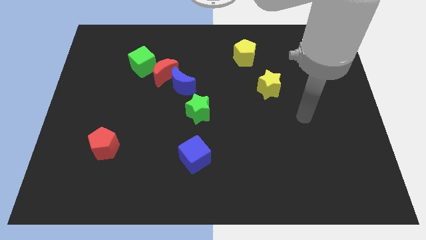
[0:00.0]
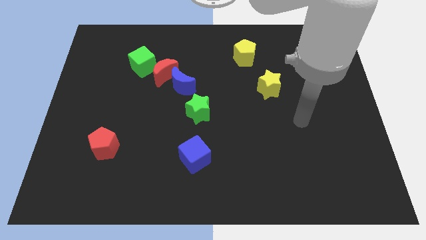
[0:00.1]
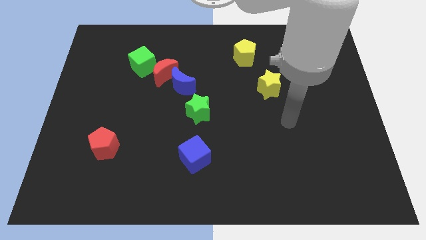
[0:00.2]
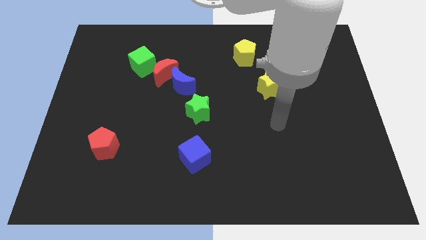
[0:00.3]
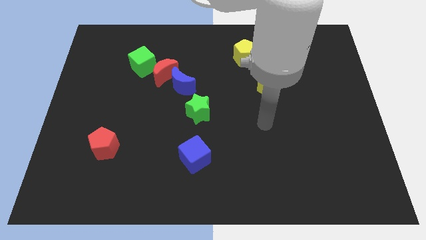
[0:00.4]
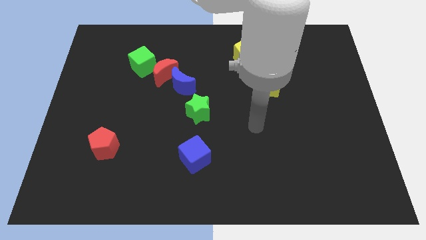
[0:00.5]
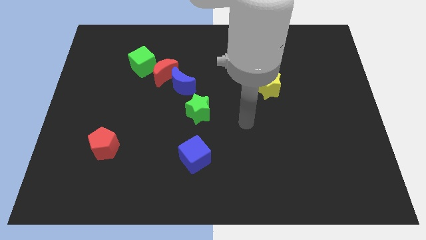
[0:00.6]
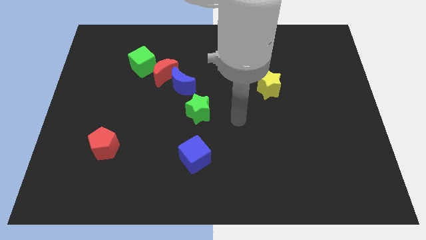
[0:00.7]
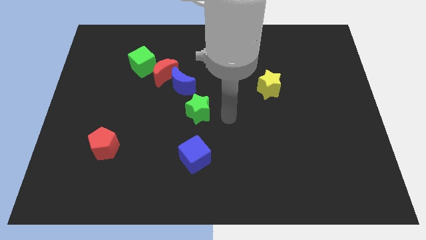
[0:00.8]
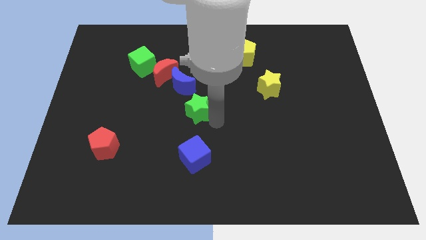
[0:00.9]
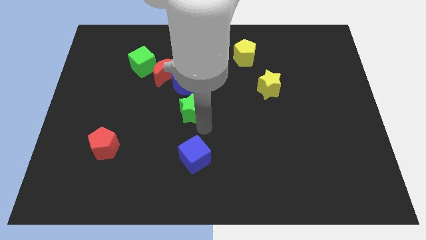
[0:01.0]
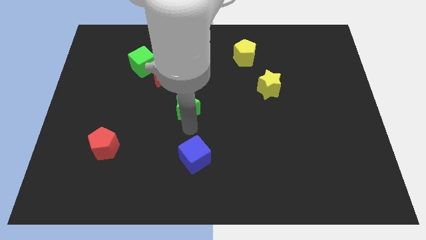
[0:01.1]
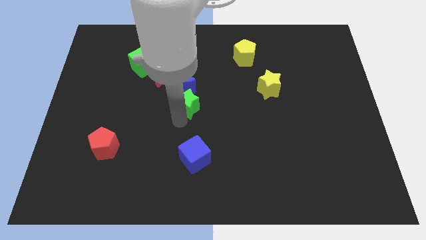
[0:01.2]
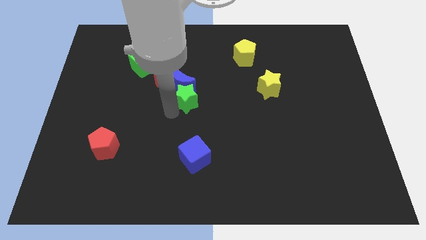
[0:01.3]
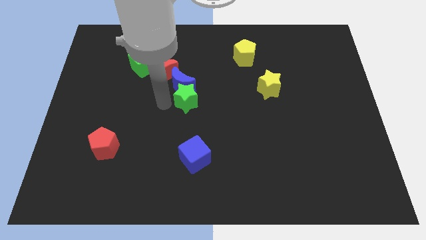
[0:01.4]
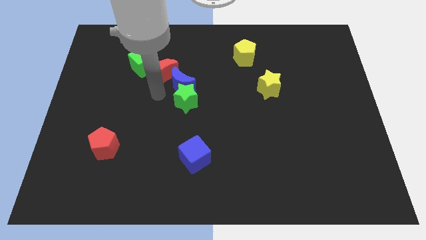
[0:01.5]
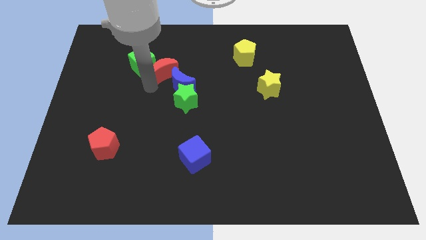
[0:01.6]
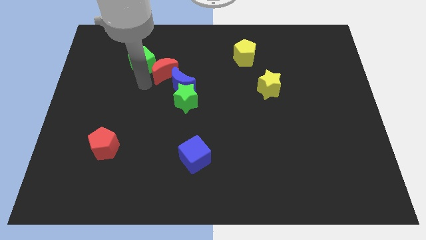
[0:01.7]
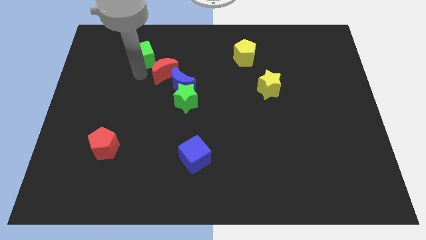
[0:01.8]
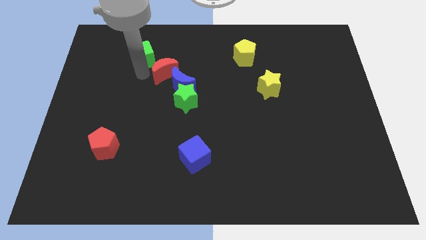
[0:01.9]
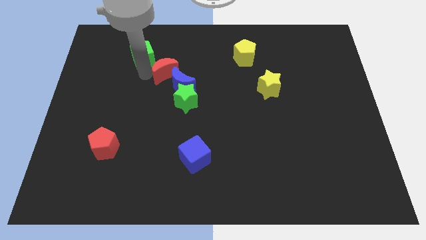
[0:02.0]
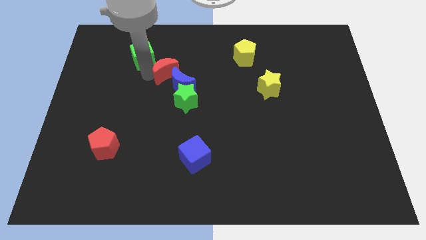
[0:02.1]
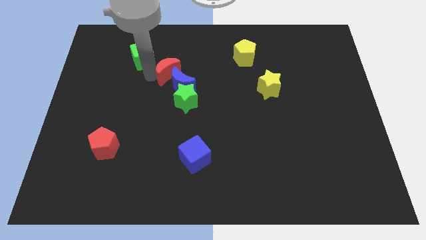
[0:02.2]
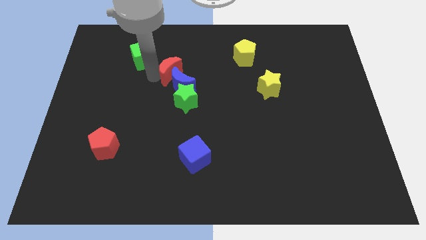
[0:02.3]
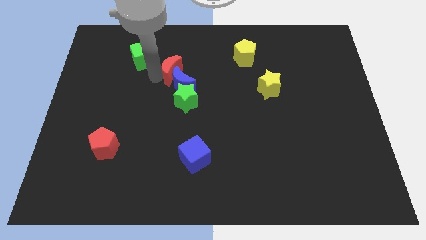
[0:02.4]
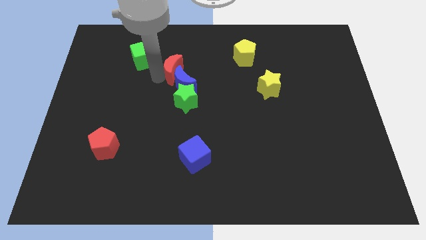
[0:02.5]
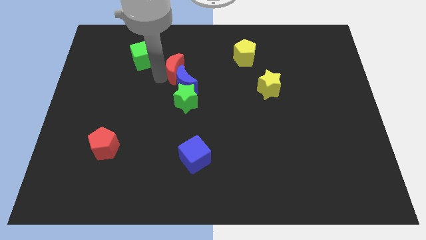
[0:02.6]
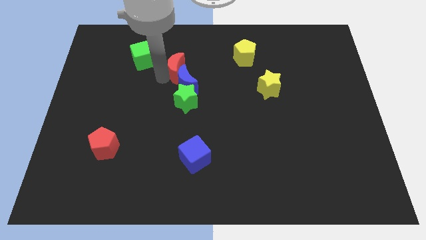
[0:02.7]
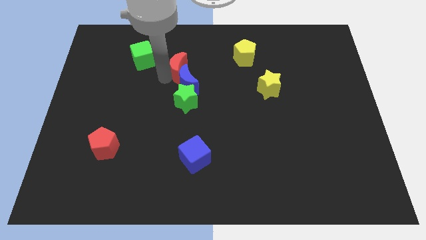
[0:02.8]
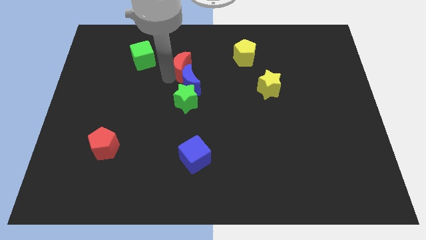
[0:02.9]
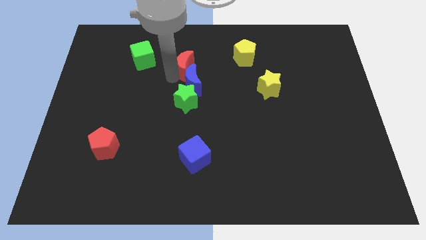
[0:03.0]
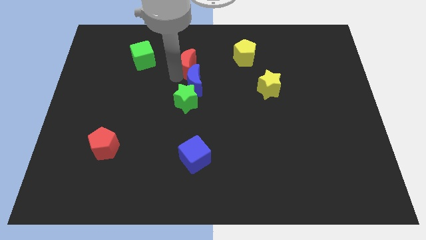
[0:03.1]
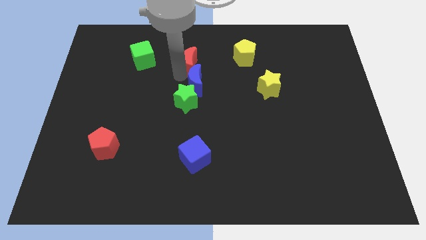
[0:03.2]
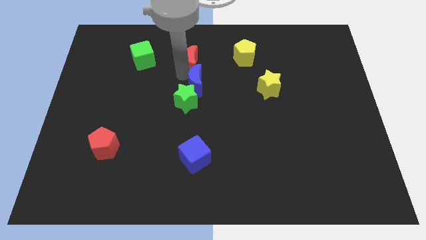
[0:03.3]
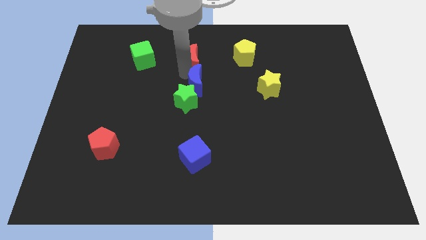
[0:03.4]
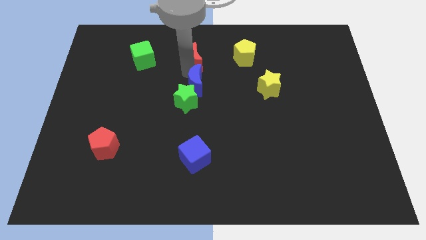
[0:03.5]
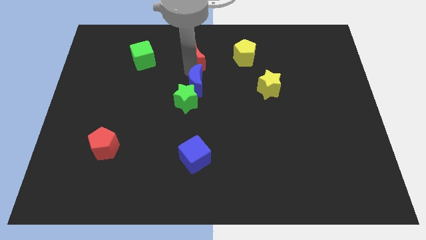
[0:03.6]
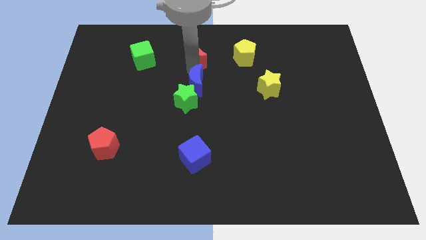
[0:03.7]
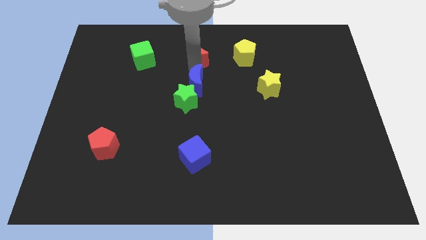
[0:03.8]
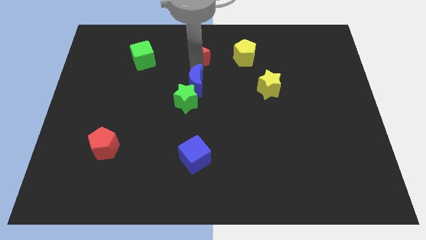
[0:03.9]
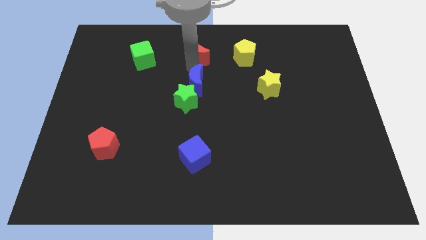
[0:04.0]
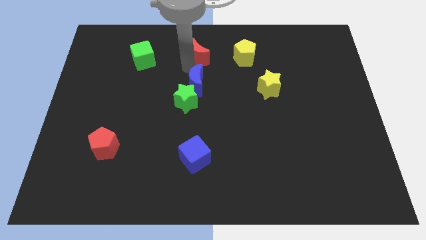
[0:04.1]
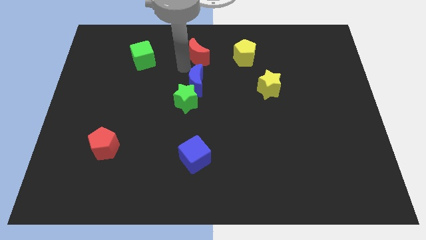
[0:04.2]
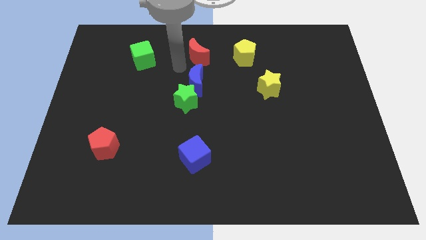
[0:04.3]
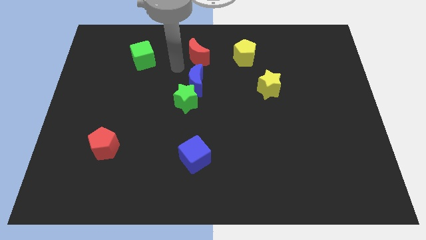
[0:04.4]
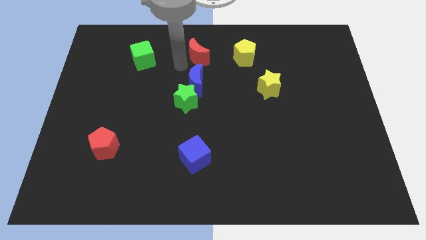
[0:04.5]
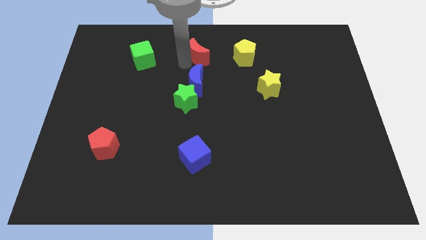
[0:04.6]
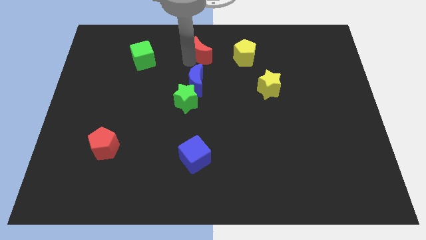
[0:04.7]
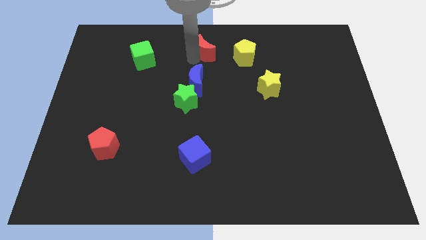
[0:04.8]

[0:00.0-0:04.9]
move the red moon away from the blue moon and green cube

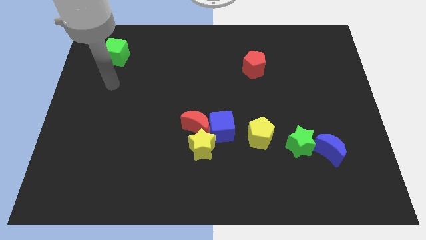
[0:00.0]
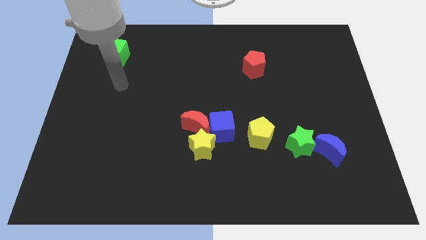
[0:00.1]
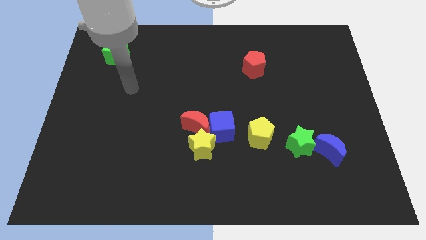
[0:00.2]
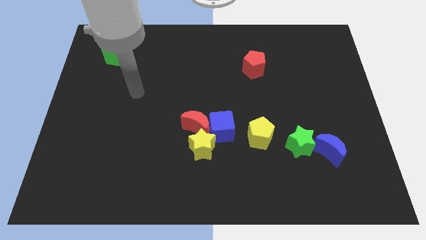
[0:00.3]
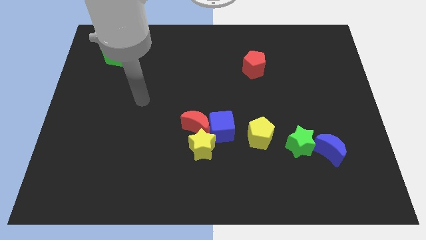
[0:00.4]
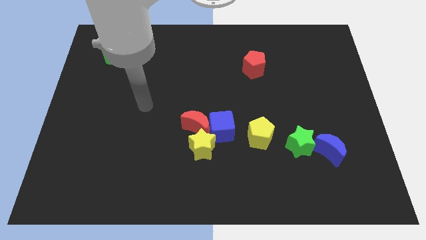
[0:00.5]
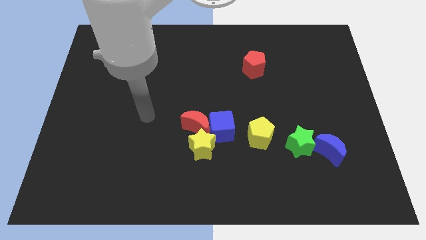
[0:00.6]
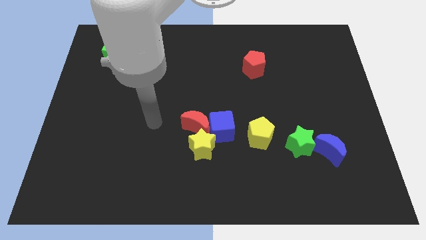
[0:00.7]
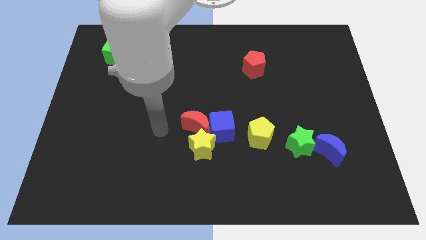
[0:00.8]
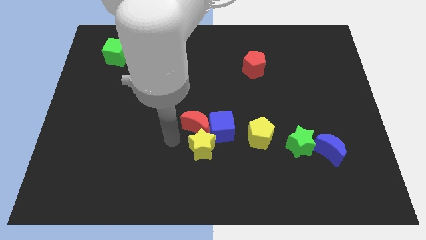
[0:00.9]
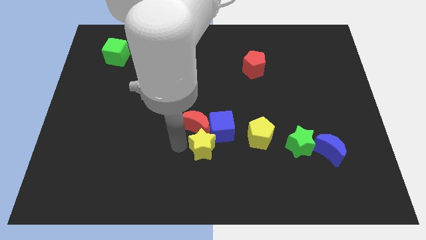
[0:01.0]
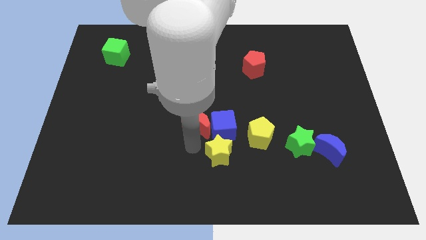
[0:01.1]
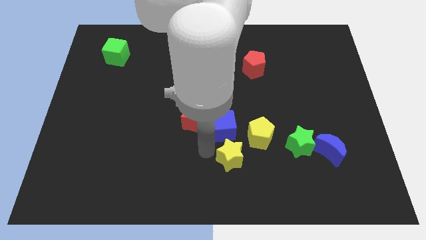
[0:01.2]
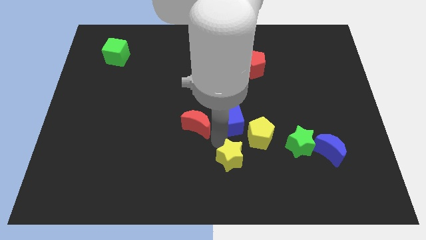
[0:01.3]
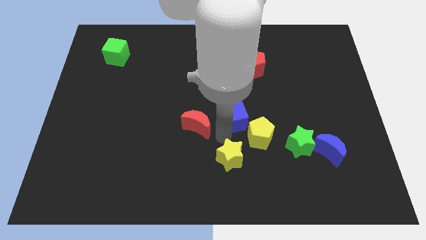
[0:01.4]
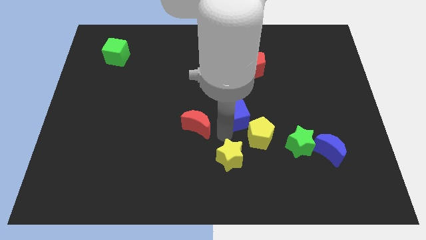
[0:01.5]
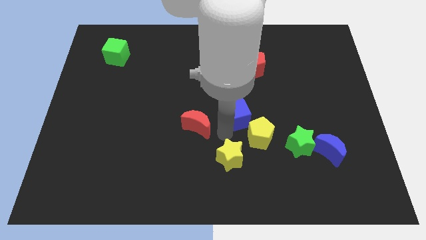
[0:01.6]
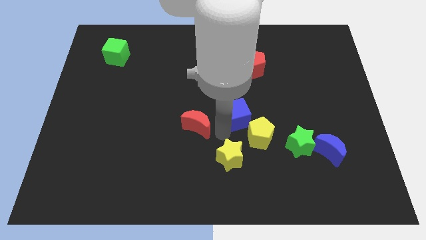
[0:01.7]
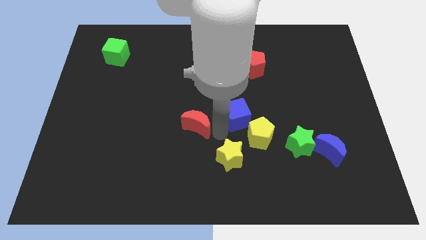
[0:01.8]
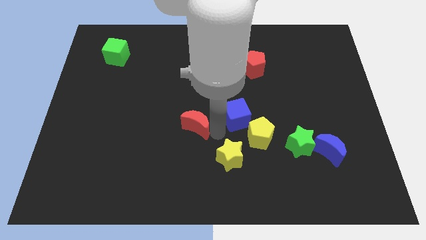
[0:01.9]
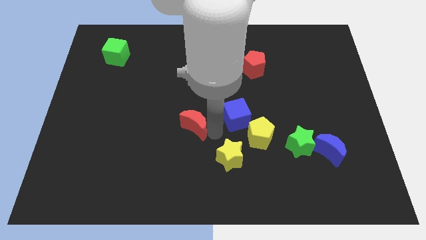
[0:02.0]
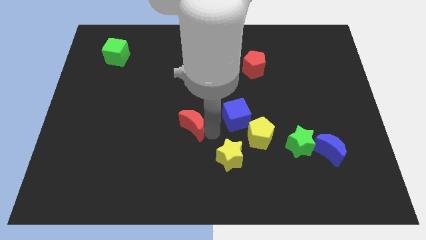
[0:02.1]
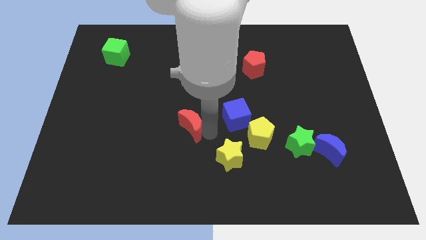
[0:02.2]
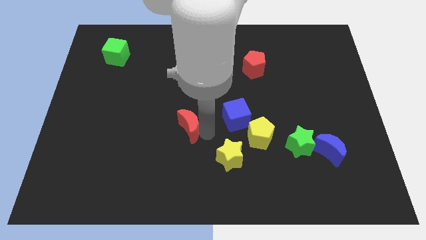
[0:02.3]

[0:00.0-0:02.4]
pull the red moon apart from the blue cube and yellow star

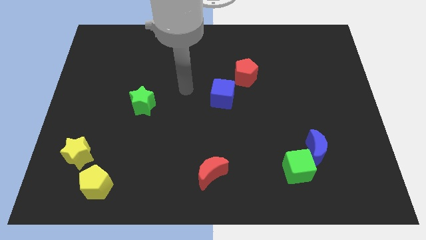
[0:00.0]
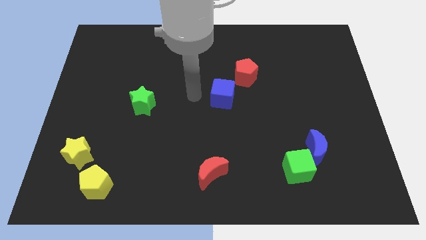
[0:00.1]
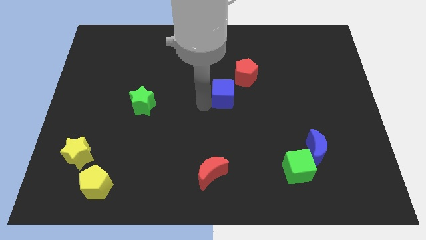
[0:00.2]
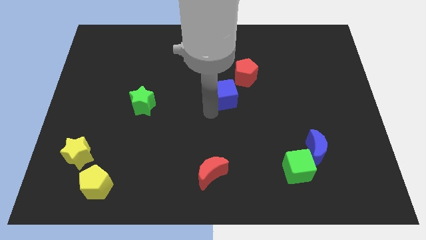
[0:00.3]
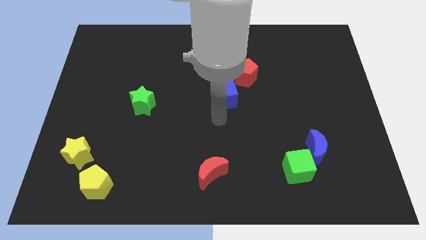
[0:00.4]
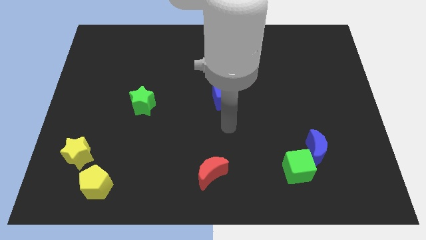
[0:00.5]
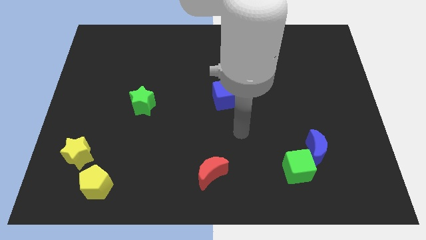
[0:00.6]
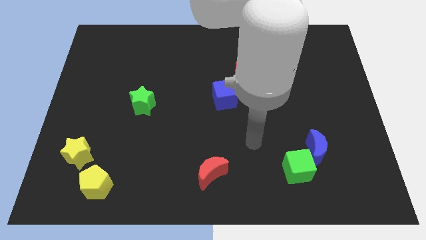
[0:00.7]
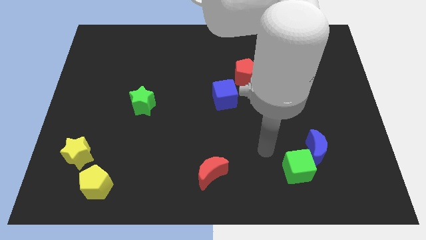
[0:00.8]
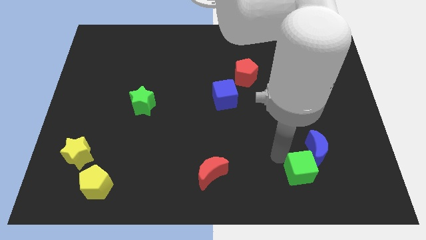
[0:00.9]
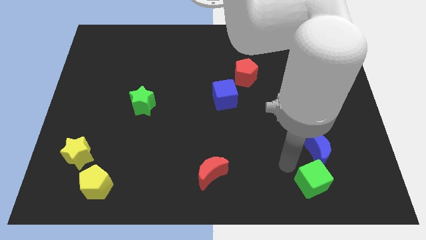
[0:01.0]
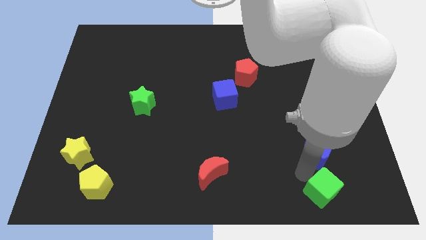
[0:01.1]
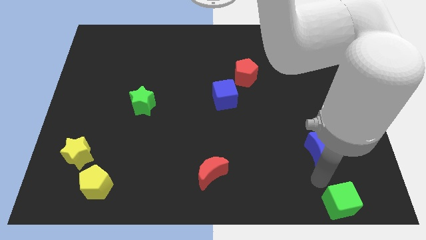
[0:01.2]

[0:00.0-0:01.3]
separate the blue moon from the green cube

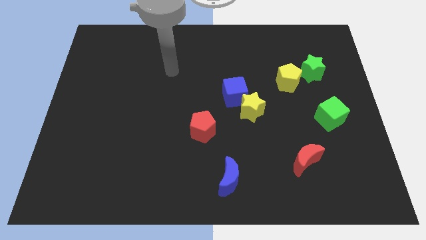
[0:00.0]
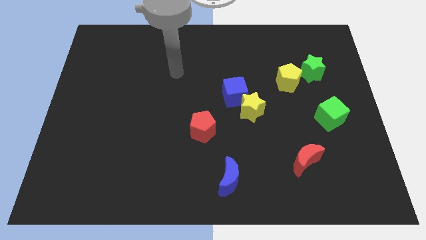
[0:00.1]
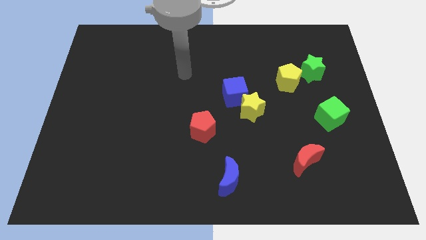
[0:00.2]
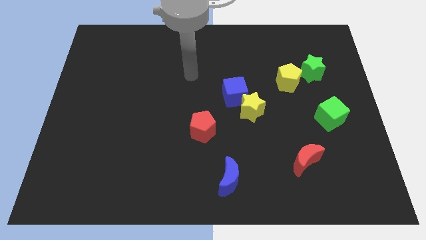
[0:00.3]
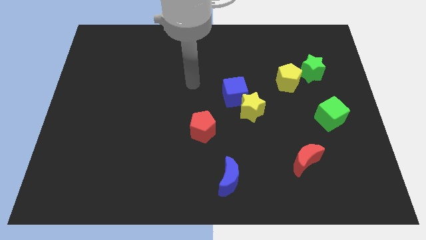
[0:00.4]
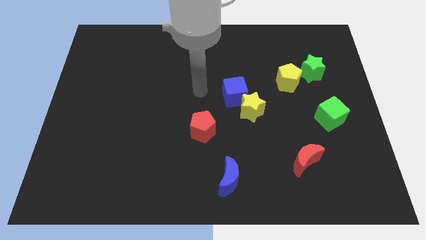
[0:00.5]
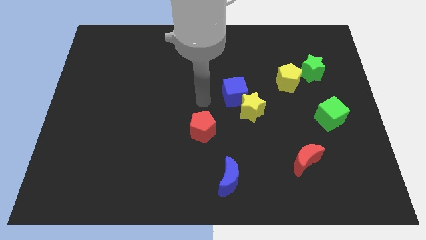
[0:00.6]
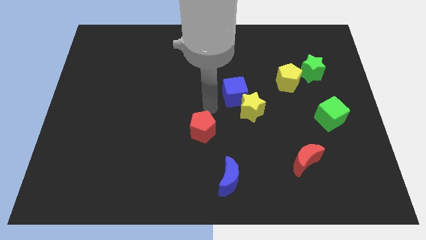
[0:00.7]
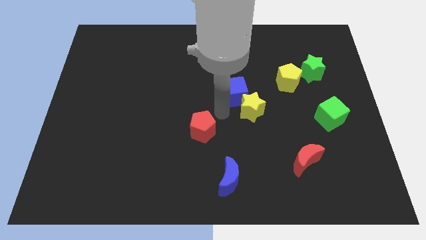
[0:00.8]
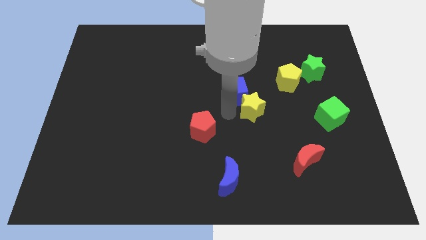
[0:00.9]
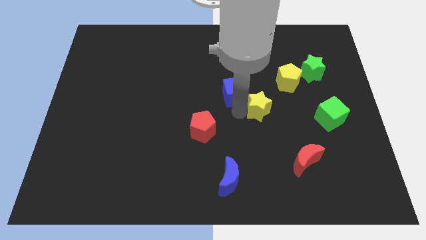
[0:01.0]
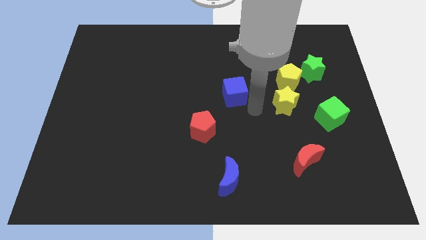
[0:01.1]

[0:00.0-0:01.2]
separate the blue cube from the yellow star
